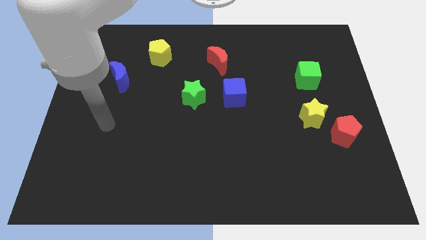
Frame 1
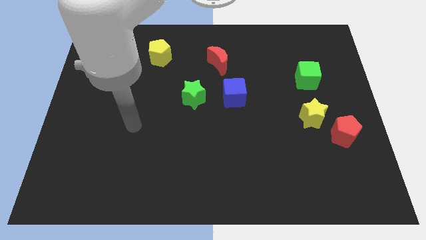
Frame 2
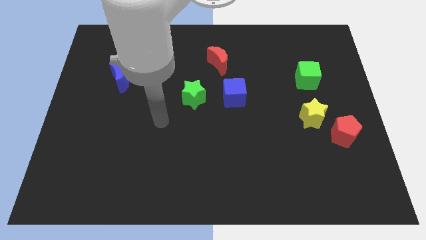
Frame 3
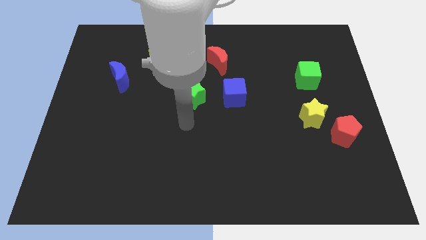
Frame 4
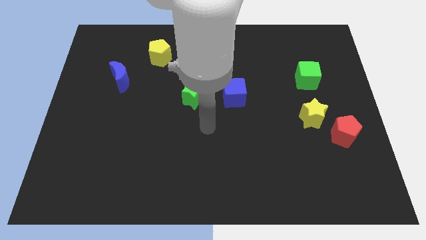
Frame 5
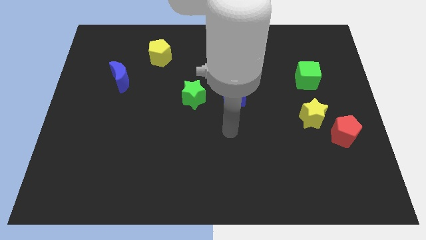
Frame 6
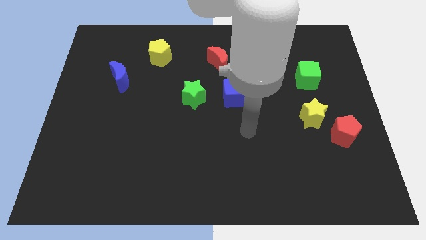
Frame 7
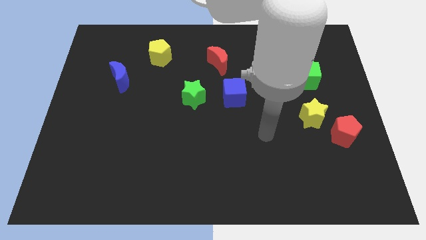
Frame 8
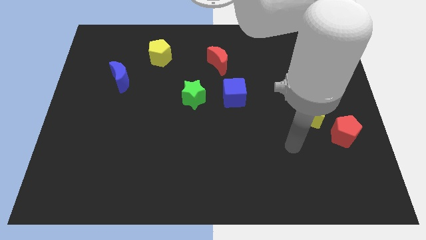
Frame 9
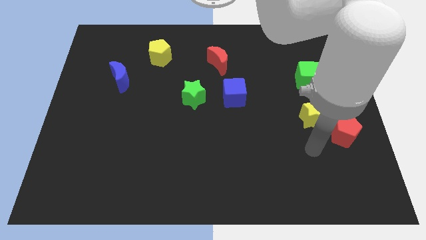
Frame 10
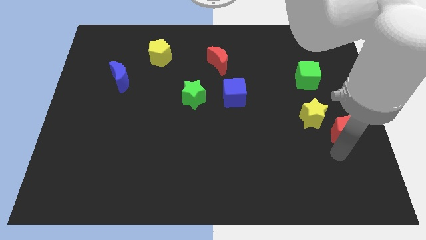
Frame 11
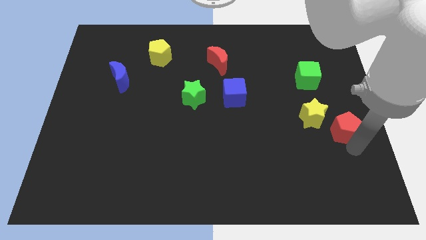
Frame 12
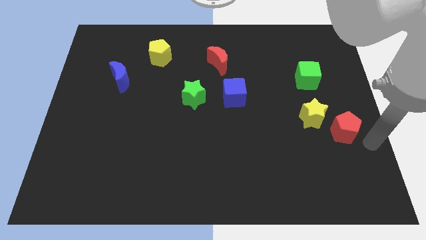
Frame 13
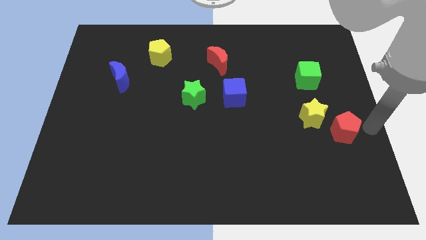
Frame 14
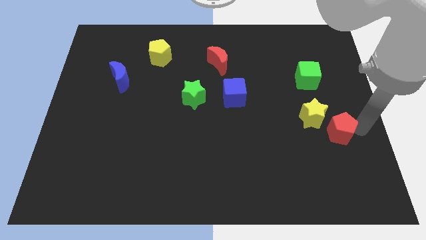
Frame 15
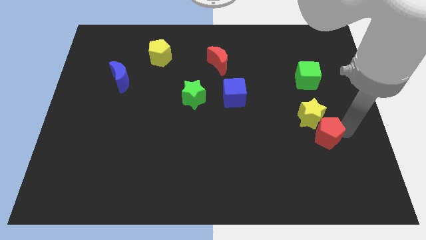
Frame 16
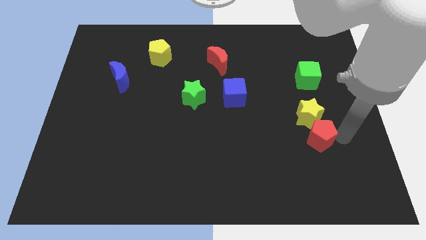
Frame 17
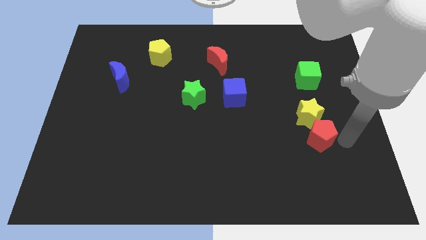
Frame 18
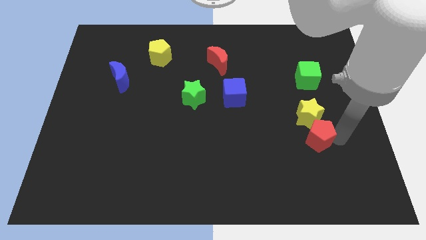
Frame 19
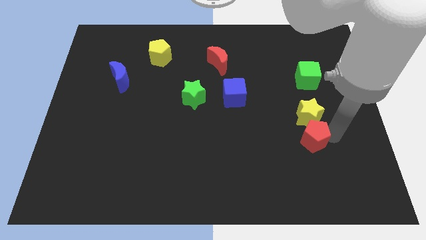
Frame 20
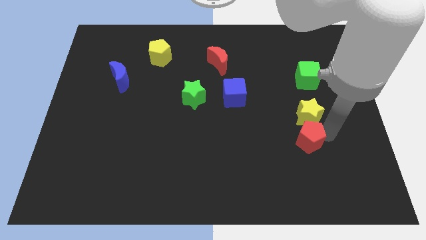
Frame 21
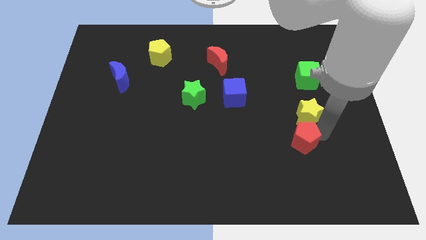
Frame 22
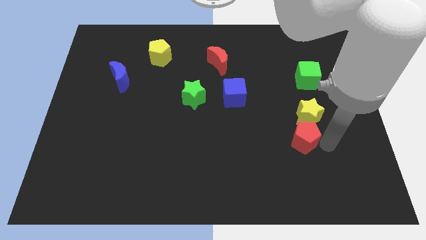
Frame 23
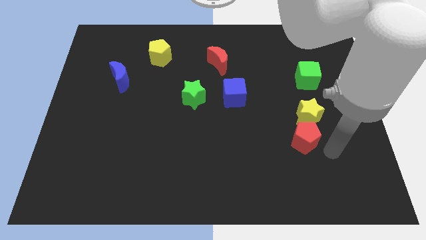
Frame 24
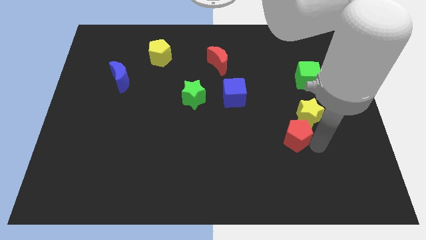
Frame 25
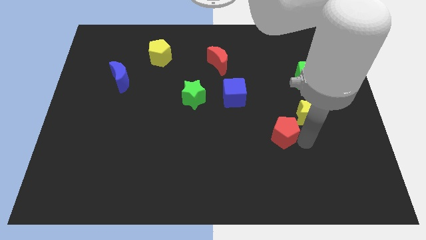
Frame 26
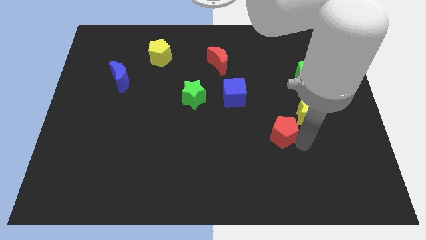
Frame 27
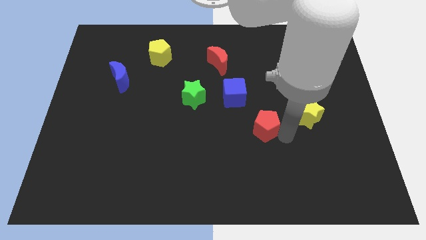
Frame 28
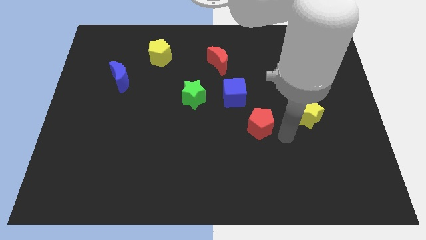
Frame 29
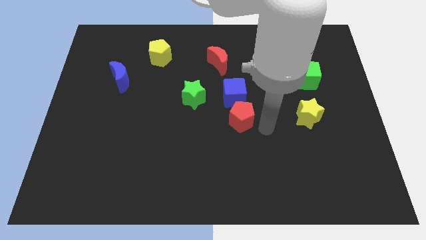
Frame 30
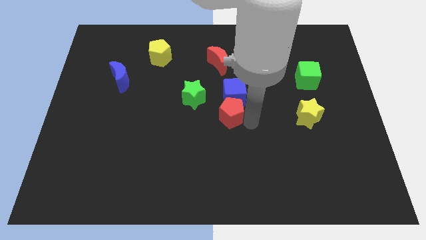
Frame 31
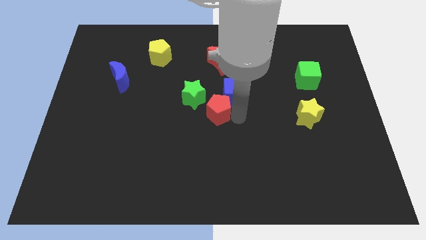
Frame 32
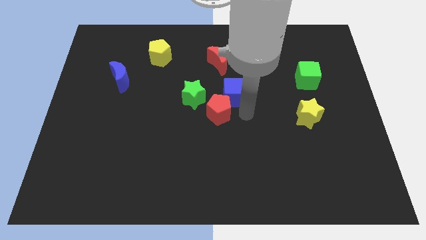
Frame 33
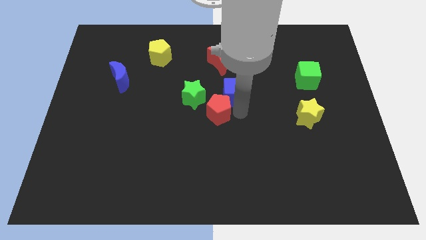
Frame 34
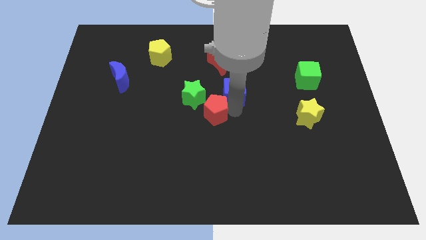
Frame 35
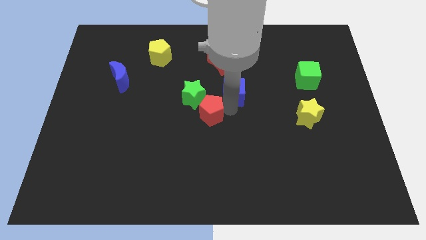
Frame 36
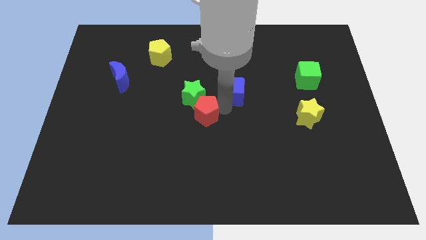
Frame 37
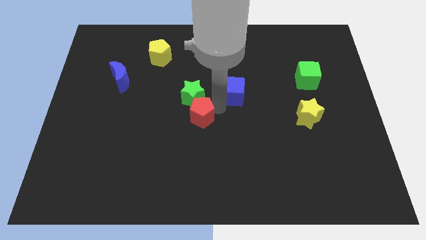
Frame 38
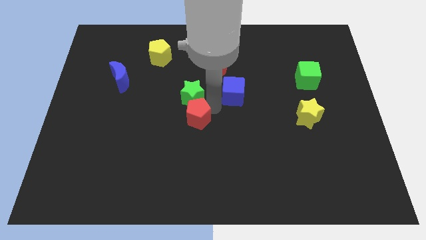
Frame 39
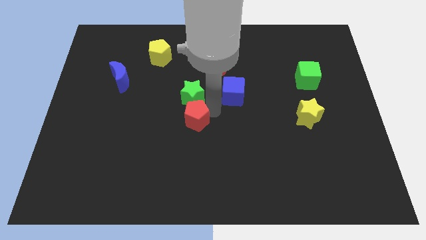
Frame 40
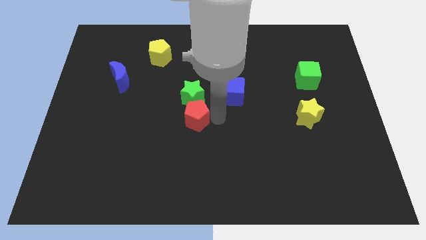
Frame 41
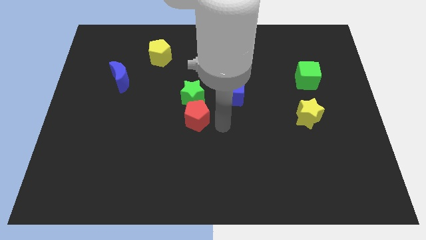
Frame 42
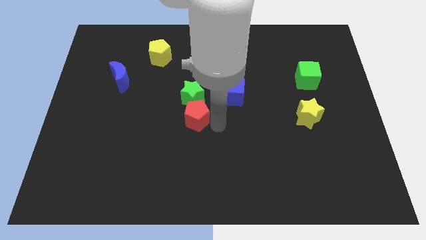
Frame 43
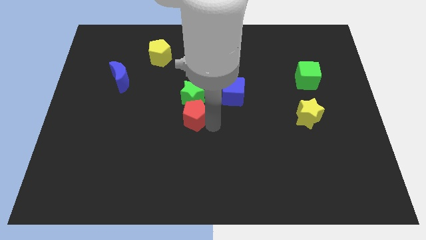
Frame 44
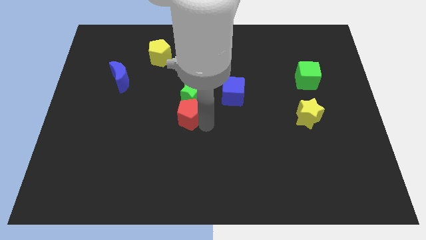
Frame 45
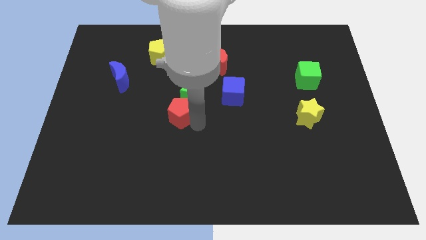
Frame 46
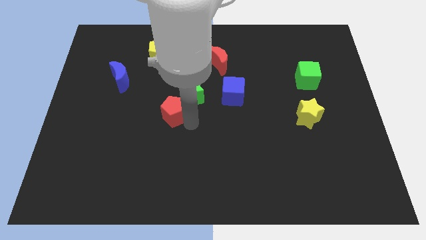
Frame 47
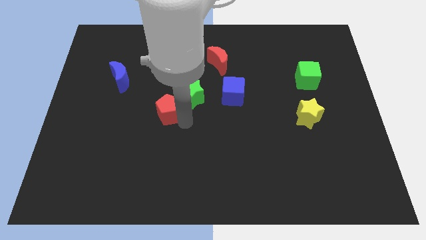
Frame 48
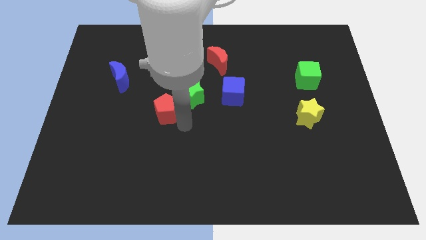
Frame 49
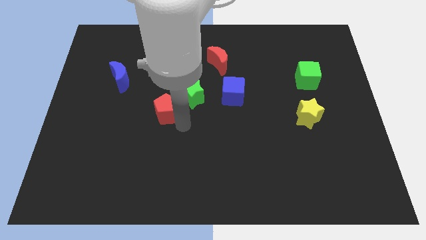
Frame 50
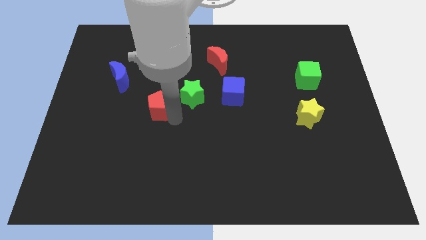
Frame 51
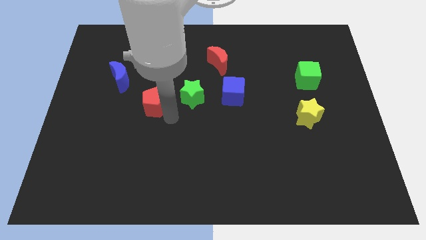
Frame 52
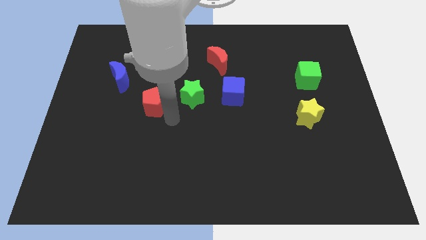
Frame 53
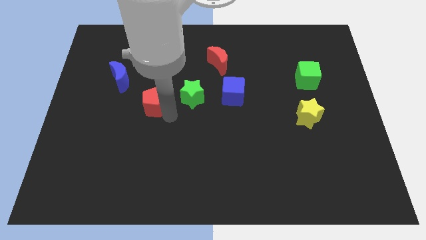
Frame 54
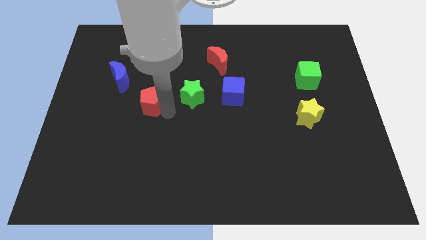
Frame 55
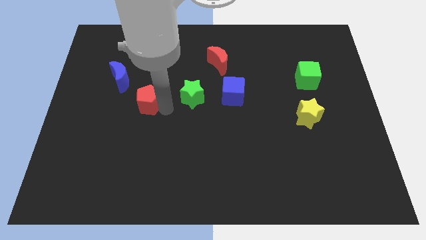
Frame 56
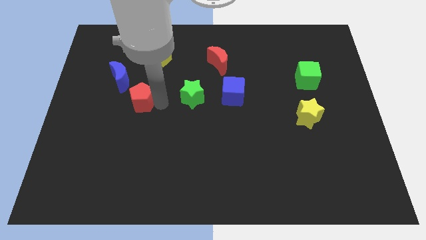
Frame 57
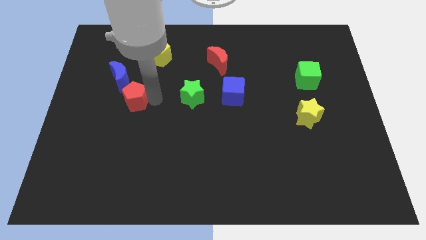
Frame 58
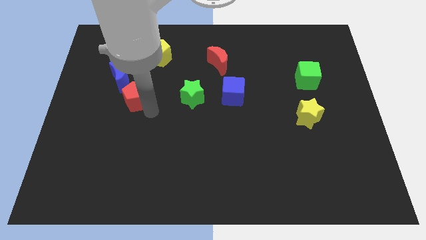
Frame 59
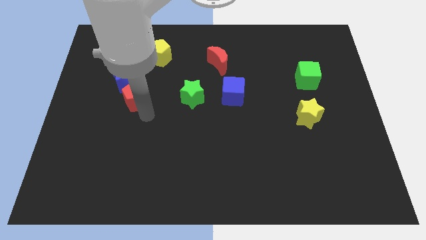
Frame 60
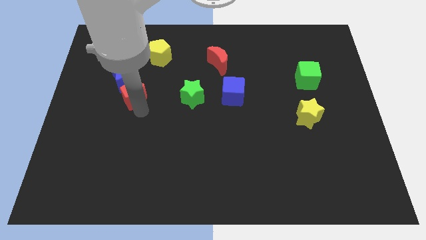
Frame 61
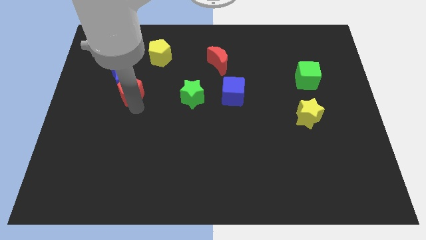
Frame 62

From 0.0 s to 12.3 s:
push the red pentagon next to the blue moon

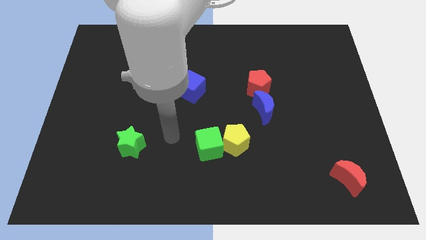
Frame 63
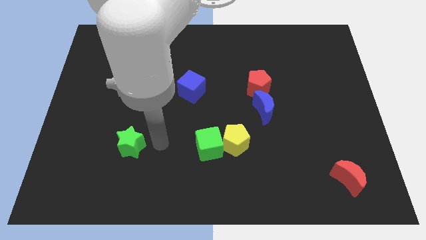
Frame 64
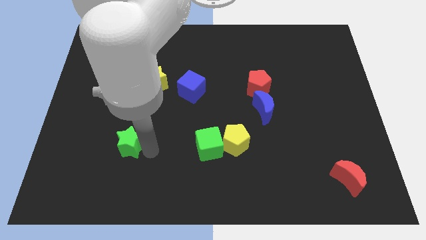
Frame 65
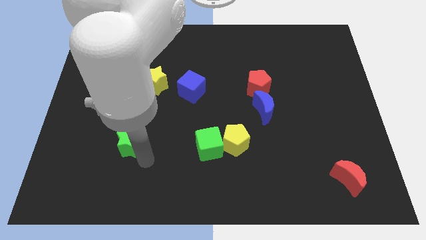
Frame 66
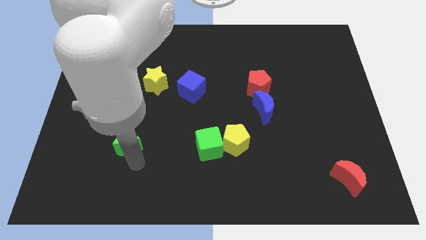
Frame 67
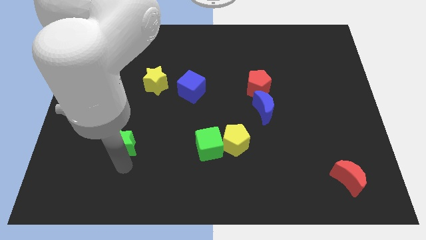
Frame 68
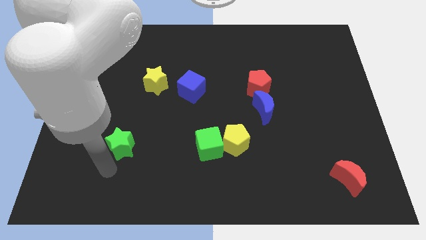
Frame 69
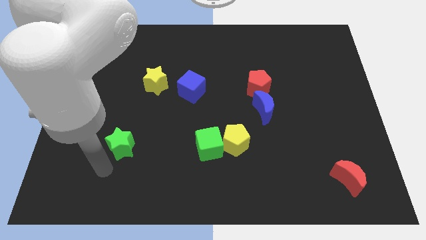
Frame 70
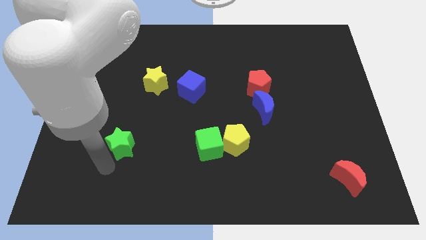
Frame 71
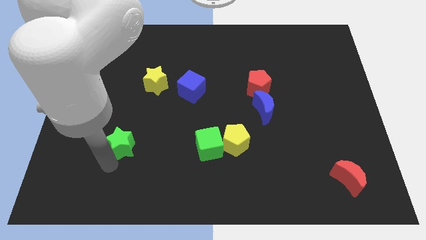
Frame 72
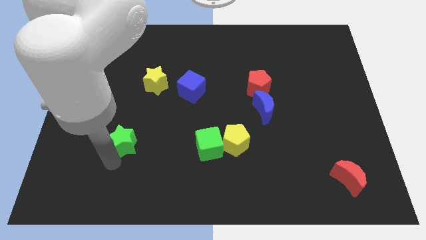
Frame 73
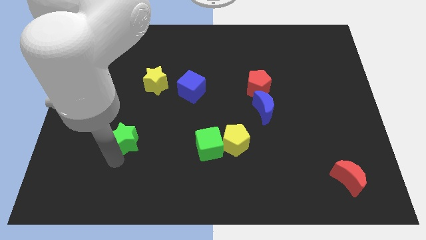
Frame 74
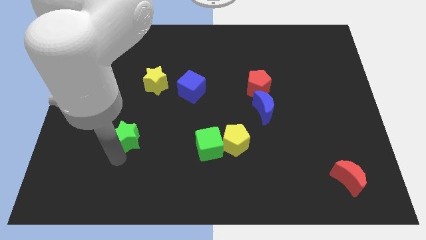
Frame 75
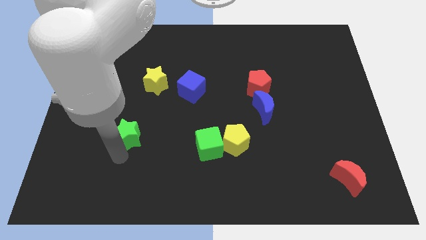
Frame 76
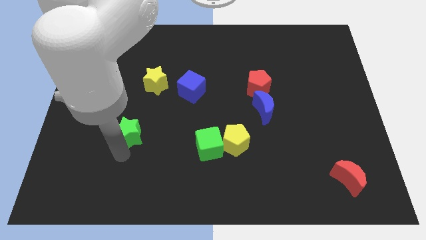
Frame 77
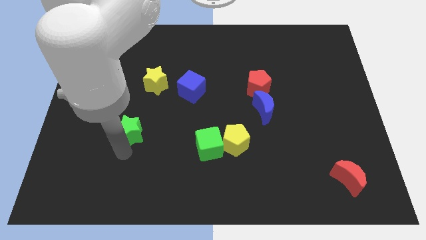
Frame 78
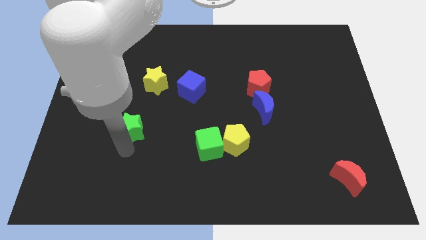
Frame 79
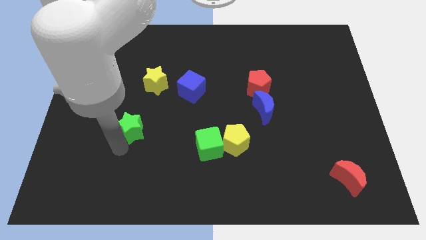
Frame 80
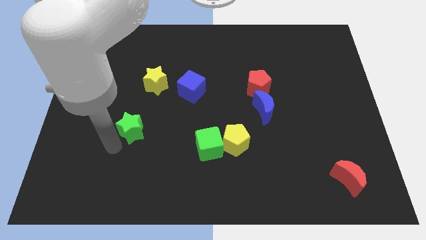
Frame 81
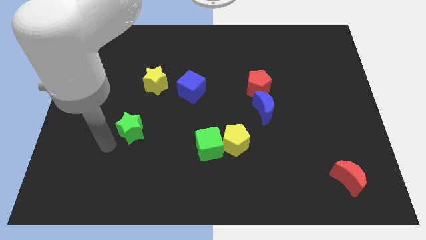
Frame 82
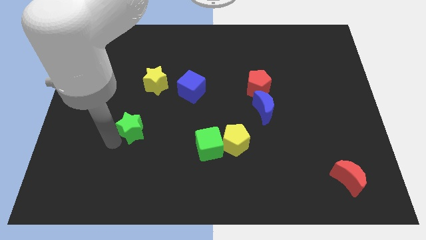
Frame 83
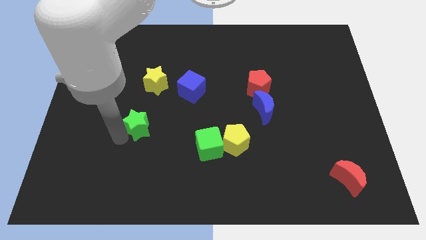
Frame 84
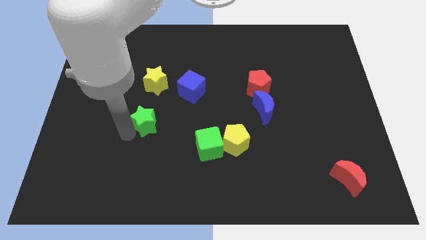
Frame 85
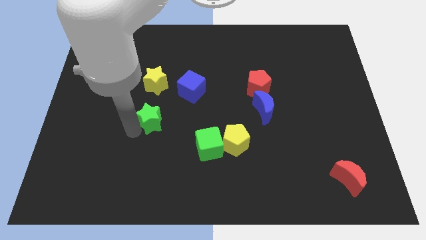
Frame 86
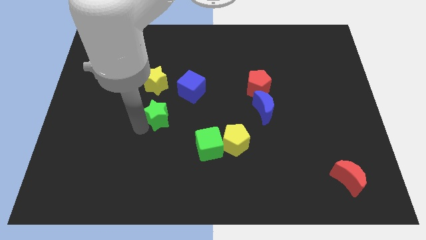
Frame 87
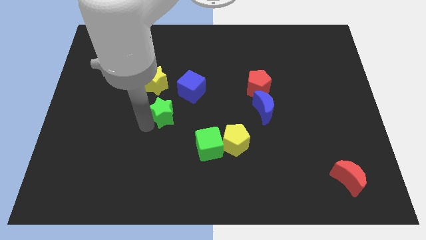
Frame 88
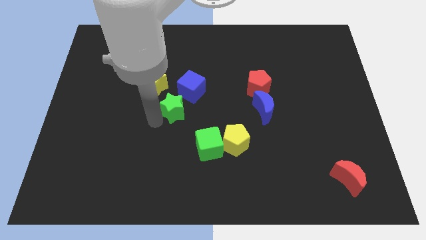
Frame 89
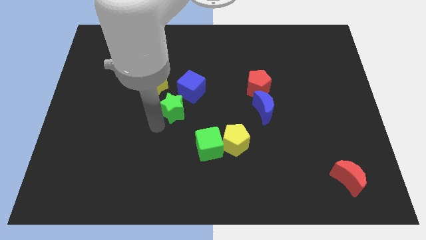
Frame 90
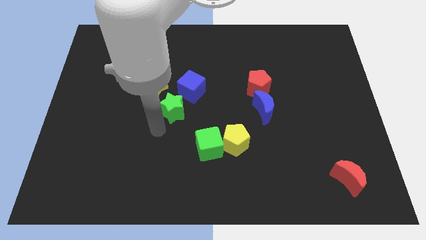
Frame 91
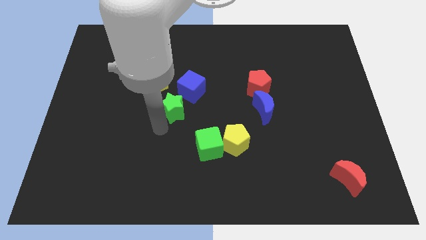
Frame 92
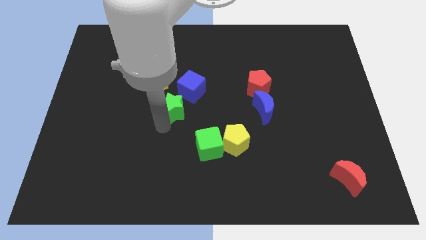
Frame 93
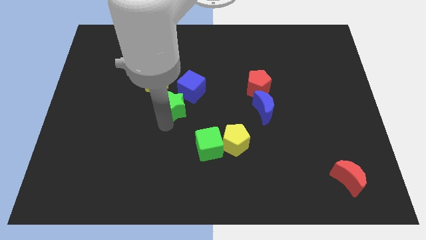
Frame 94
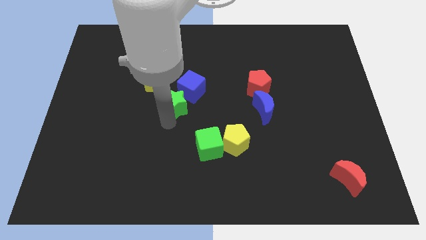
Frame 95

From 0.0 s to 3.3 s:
slide the green star towards the blue cube
